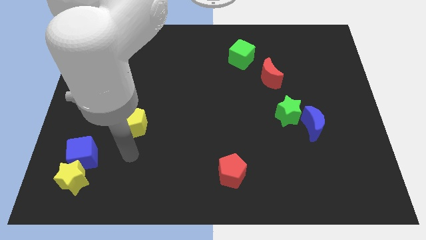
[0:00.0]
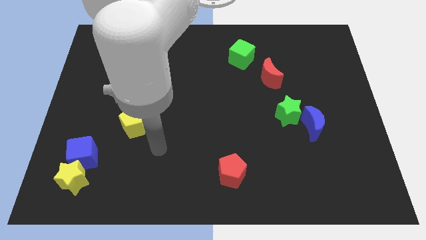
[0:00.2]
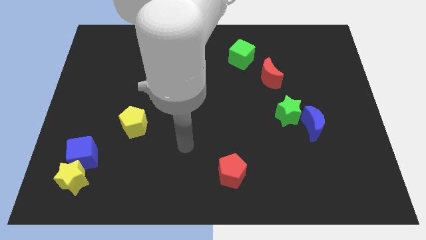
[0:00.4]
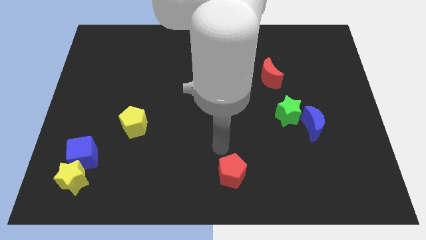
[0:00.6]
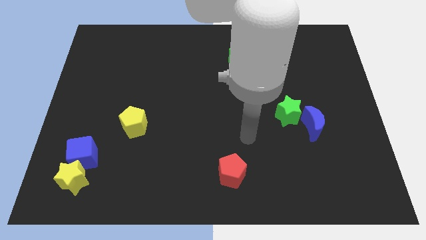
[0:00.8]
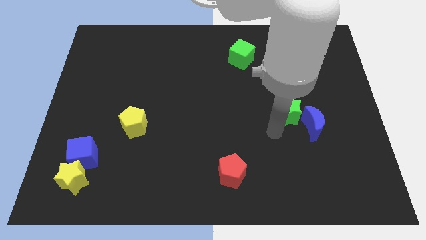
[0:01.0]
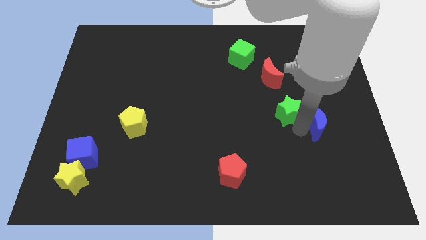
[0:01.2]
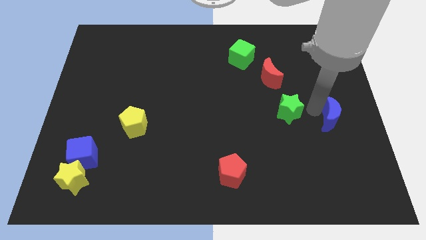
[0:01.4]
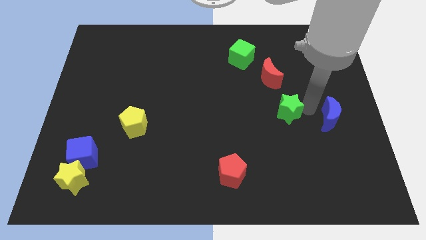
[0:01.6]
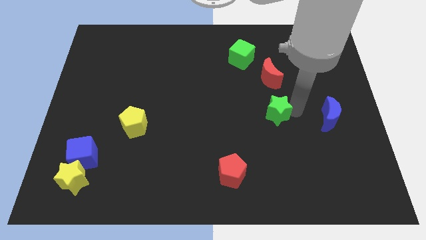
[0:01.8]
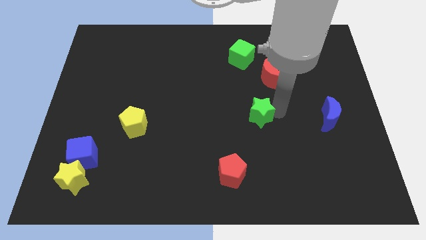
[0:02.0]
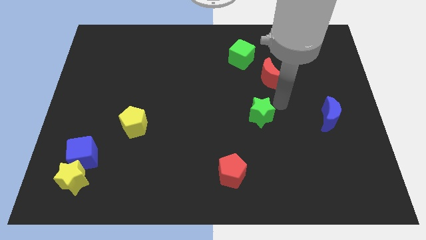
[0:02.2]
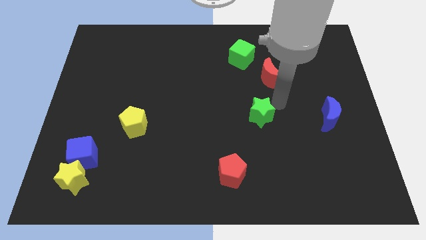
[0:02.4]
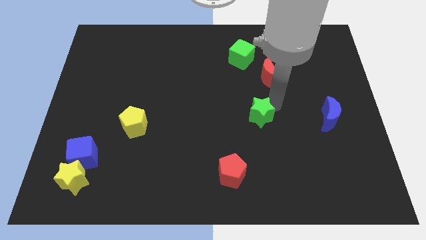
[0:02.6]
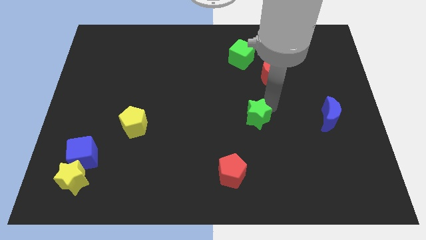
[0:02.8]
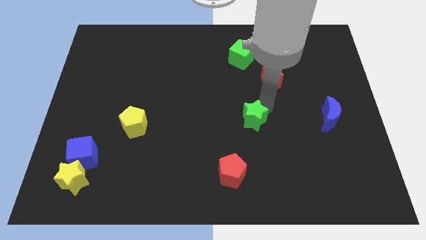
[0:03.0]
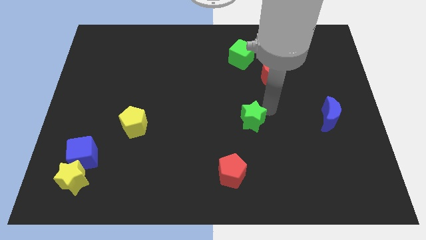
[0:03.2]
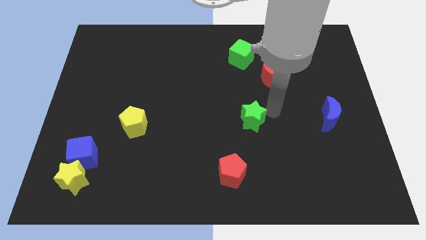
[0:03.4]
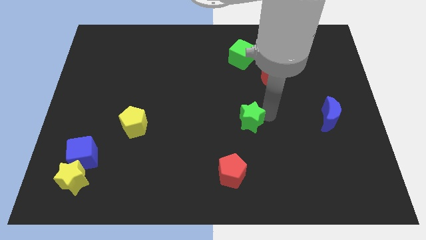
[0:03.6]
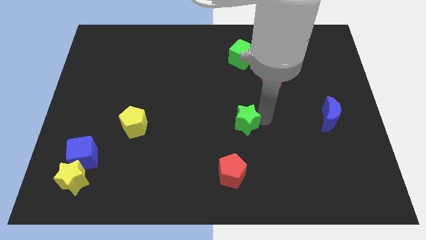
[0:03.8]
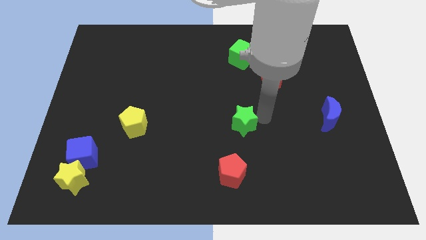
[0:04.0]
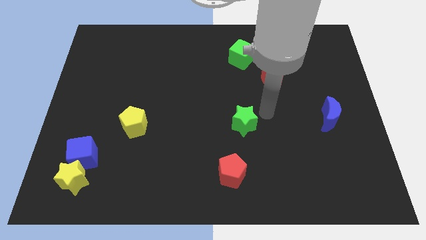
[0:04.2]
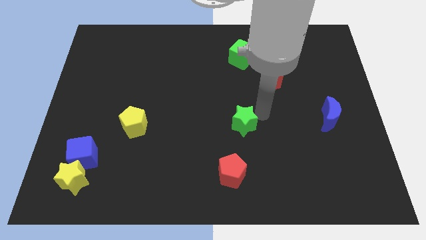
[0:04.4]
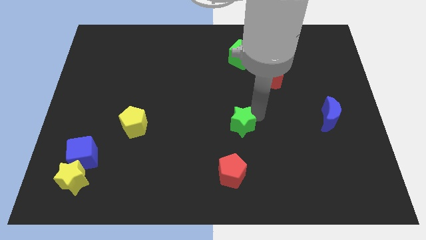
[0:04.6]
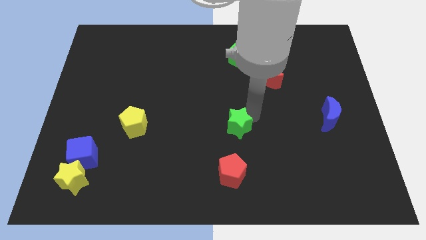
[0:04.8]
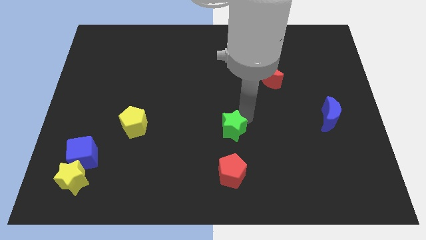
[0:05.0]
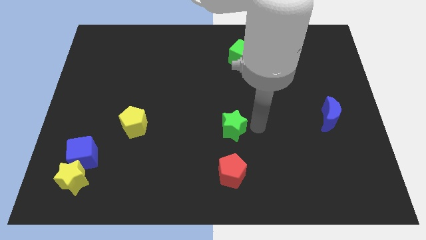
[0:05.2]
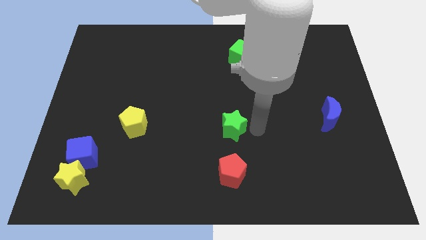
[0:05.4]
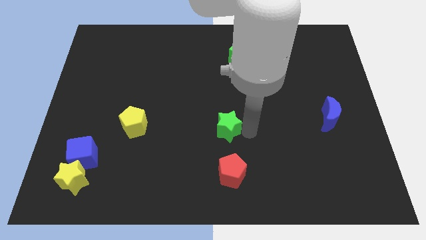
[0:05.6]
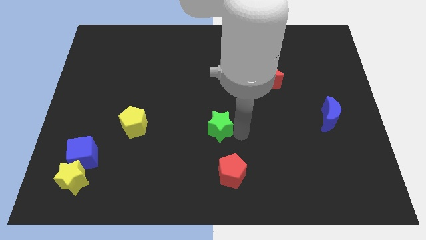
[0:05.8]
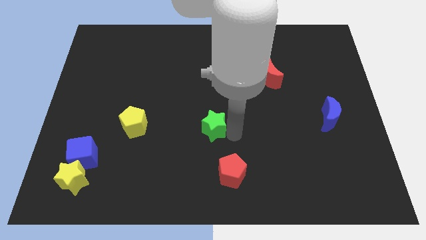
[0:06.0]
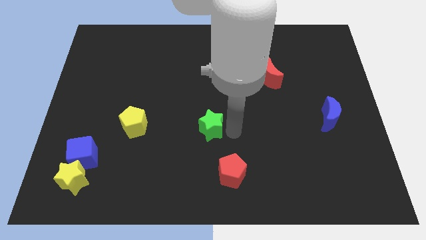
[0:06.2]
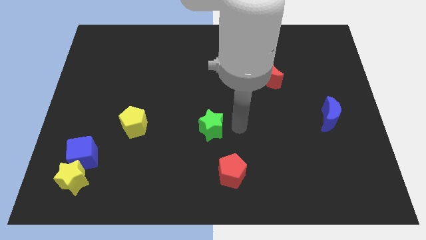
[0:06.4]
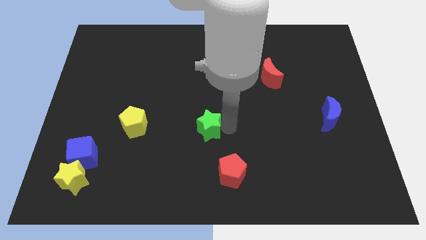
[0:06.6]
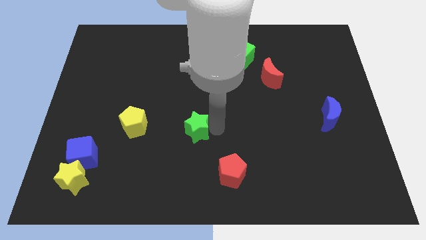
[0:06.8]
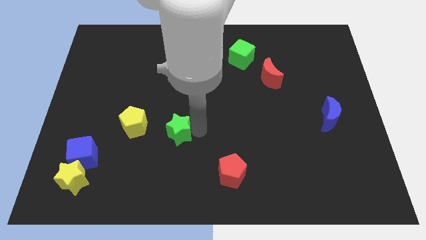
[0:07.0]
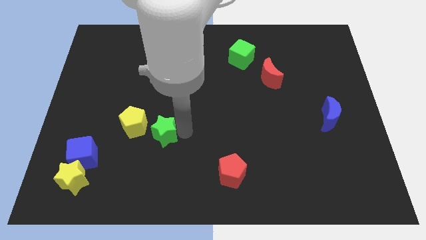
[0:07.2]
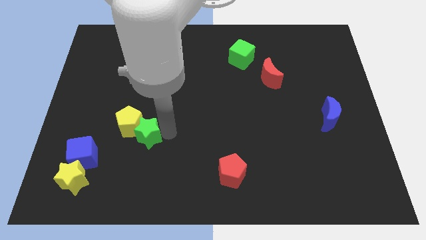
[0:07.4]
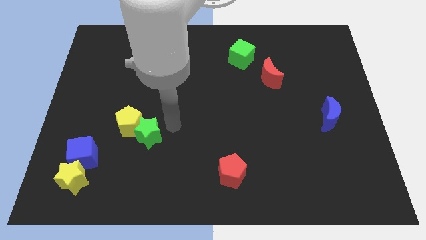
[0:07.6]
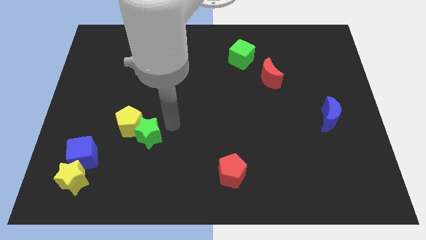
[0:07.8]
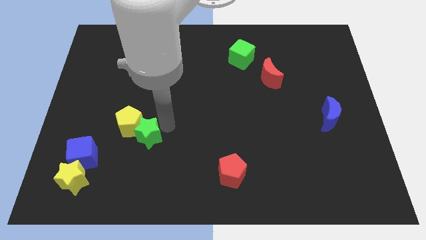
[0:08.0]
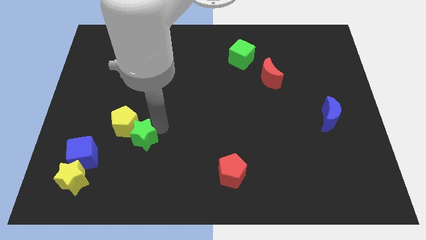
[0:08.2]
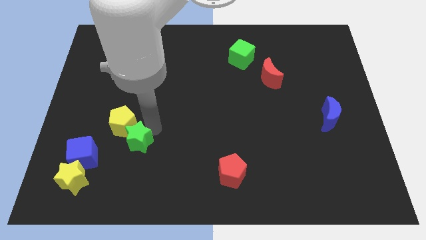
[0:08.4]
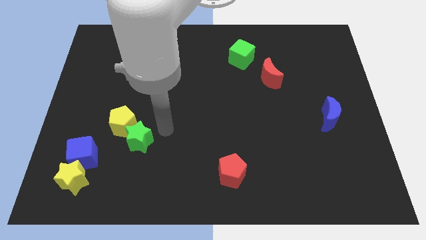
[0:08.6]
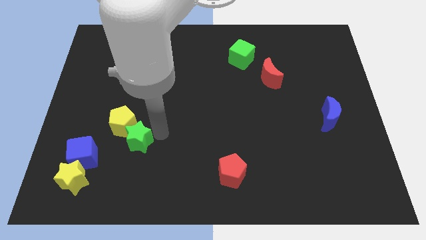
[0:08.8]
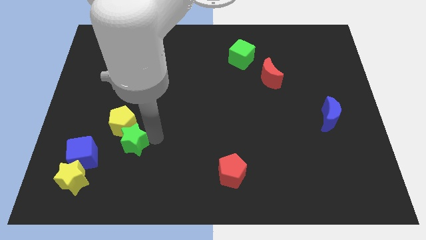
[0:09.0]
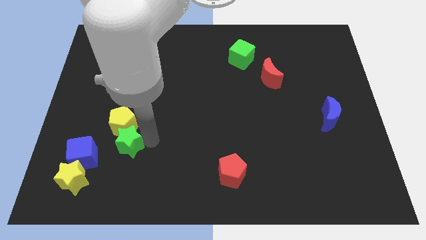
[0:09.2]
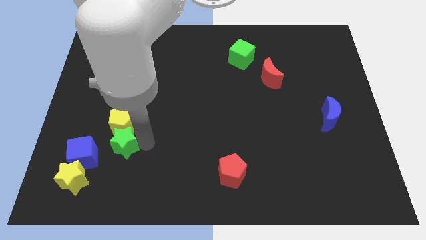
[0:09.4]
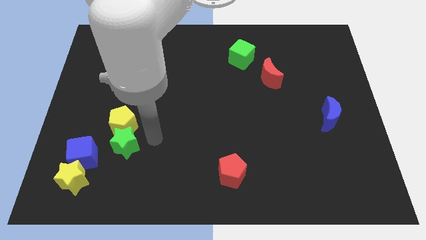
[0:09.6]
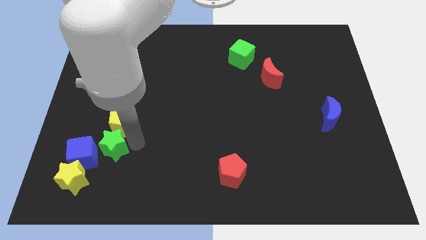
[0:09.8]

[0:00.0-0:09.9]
push the green star towards the blue cube

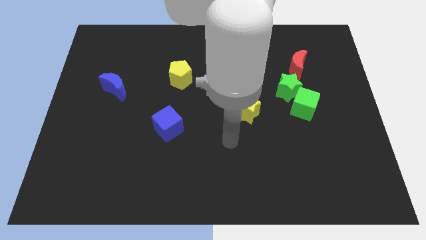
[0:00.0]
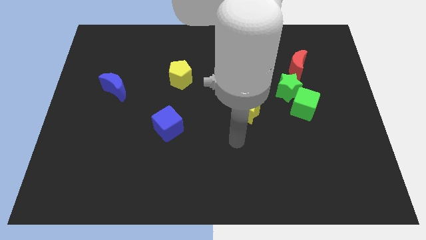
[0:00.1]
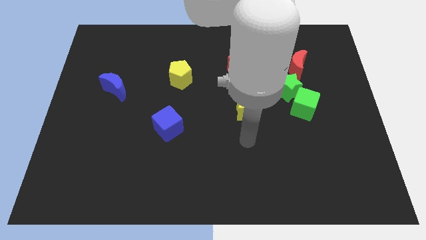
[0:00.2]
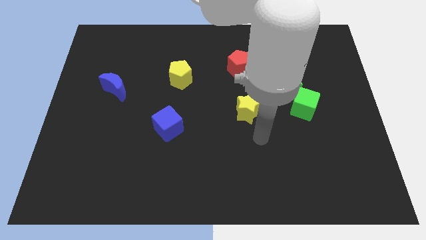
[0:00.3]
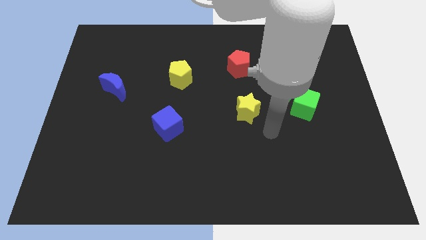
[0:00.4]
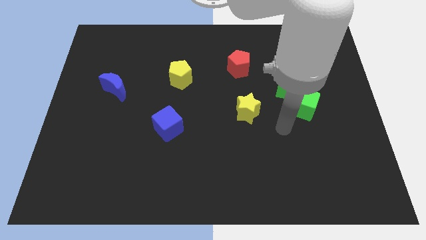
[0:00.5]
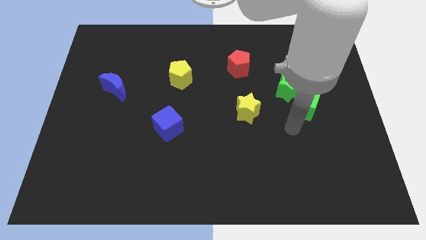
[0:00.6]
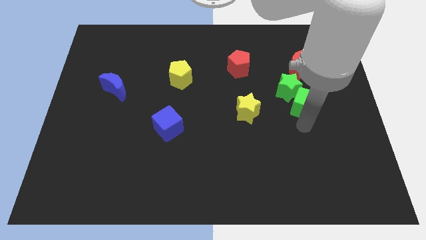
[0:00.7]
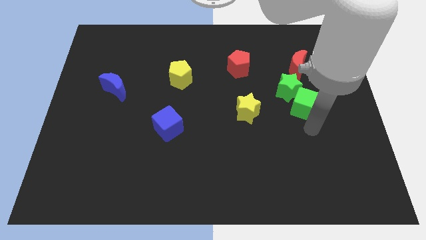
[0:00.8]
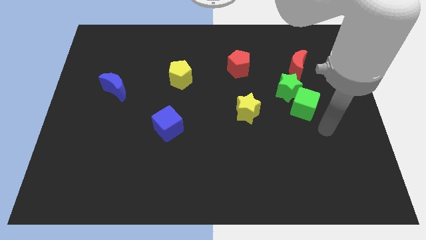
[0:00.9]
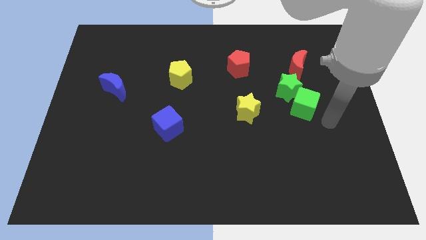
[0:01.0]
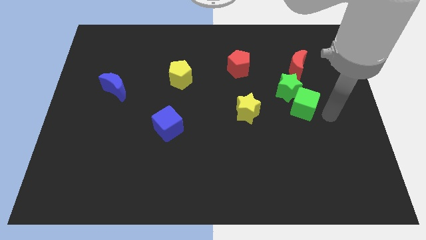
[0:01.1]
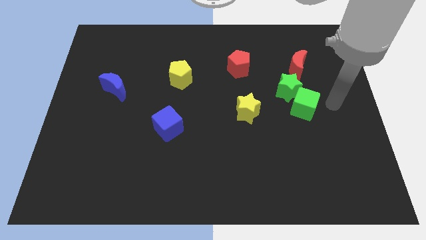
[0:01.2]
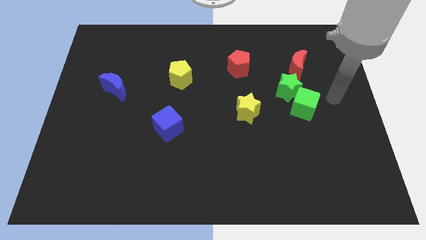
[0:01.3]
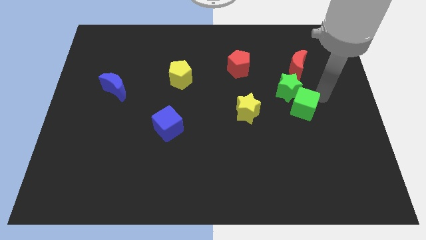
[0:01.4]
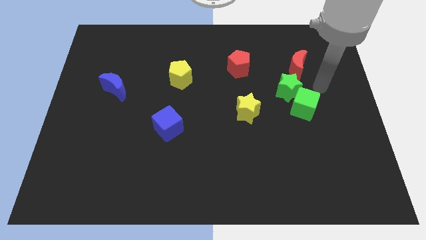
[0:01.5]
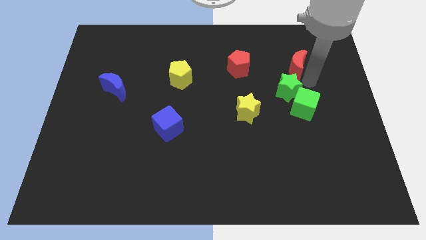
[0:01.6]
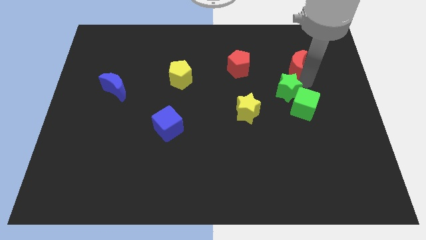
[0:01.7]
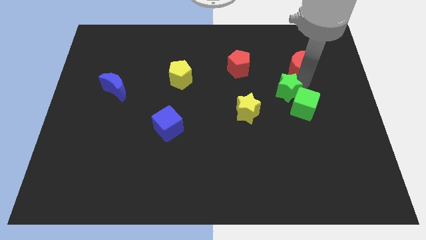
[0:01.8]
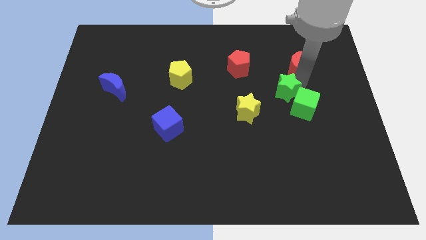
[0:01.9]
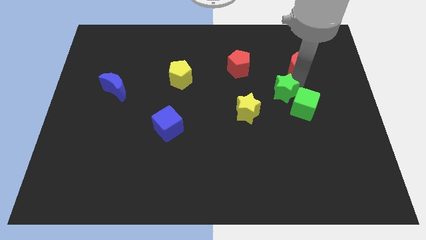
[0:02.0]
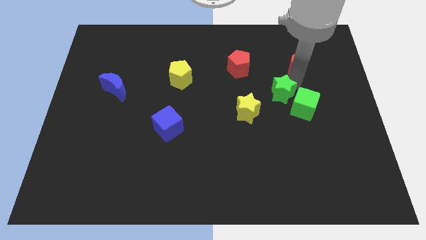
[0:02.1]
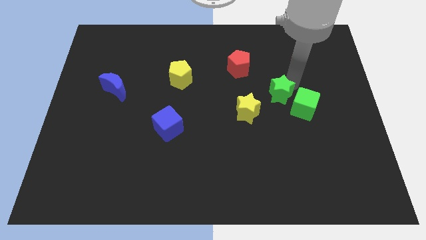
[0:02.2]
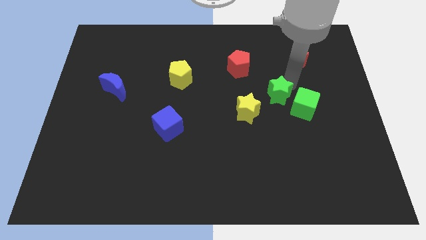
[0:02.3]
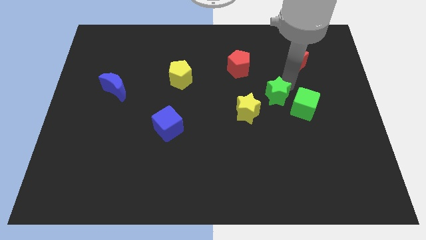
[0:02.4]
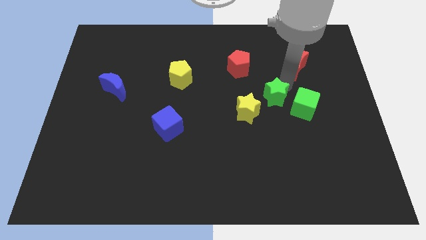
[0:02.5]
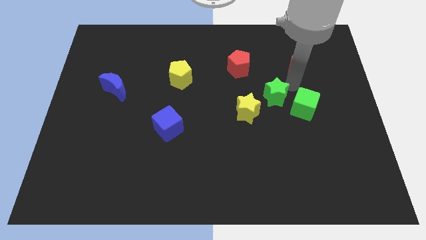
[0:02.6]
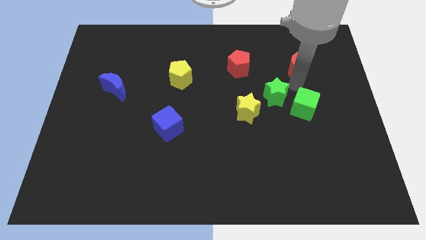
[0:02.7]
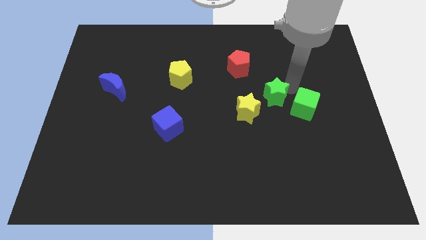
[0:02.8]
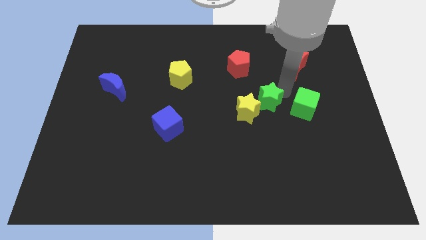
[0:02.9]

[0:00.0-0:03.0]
put the green star next to the yellow star
